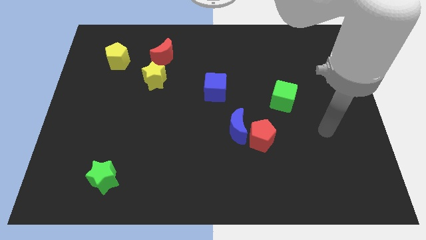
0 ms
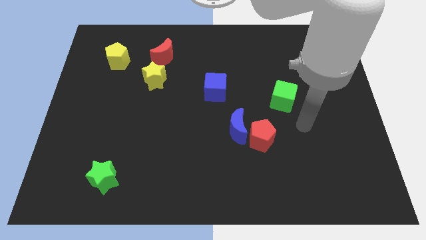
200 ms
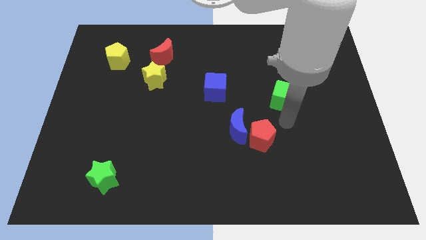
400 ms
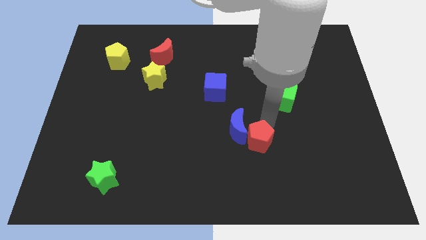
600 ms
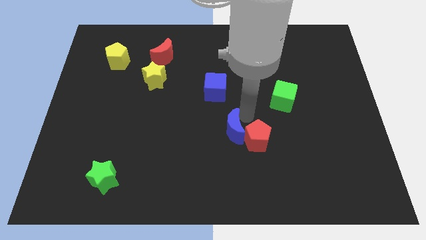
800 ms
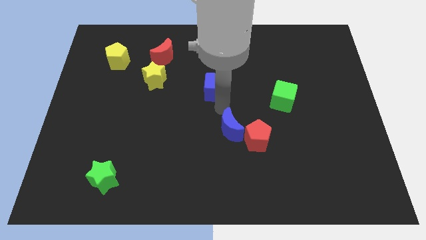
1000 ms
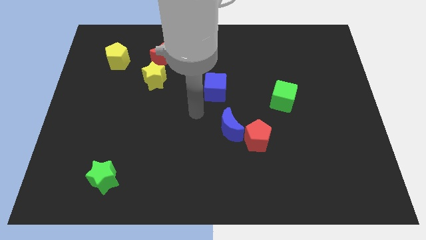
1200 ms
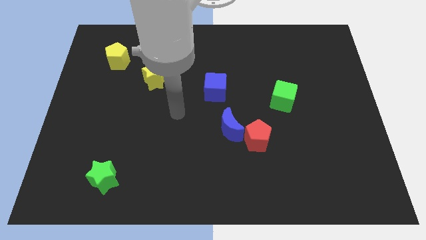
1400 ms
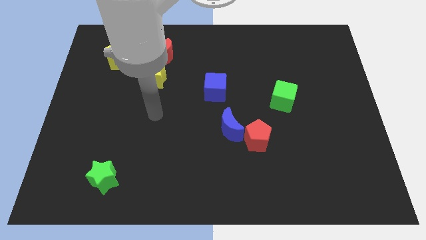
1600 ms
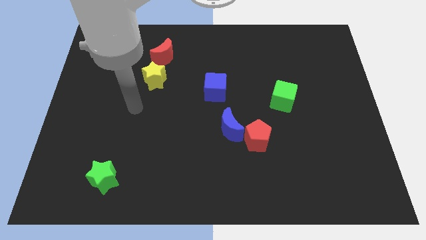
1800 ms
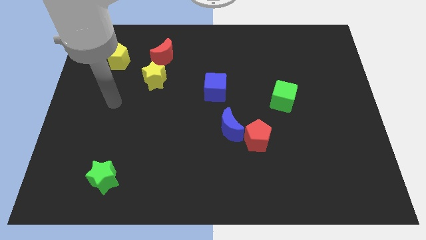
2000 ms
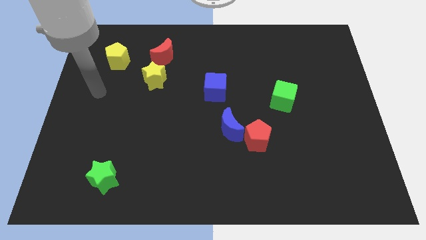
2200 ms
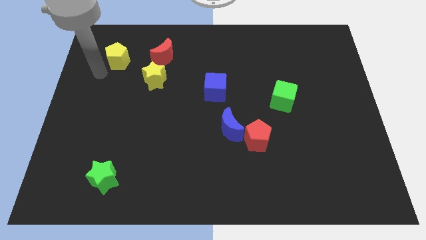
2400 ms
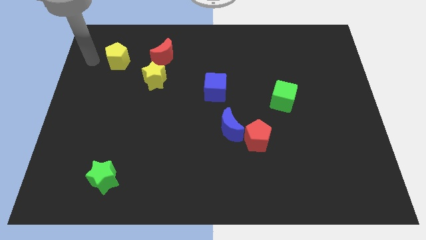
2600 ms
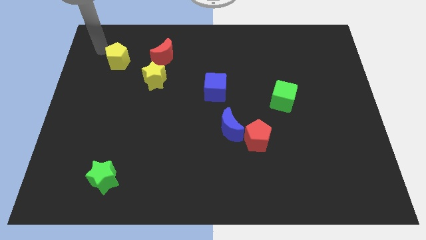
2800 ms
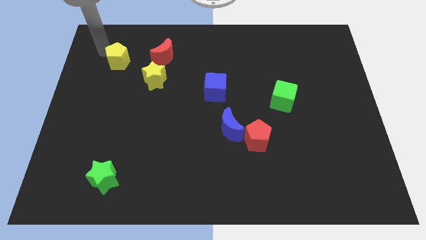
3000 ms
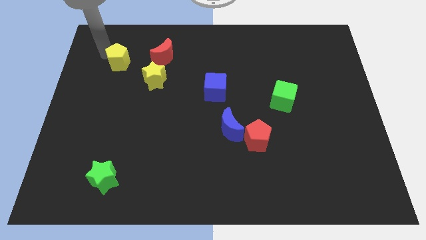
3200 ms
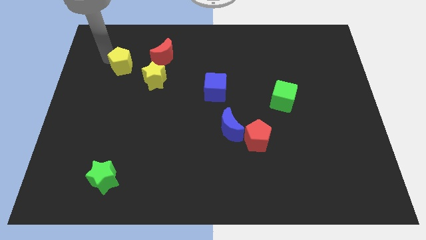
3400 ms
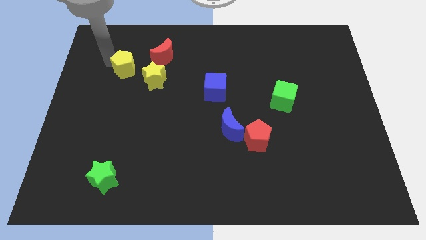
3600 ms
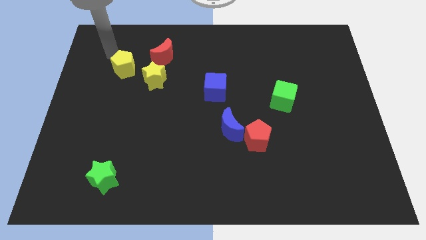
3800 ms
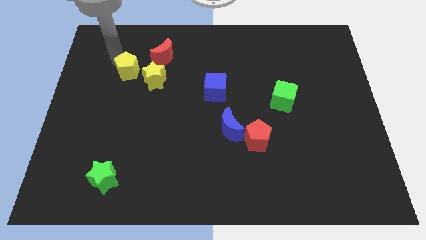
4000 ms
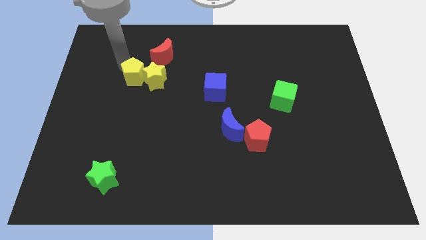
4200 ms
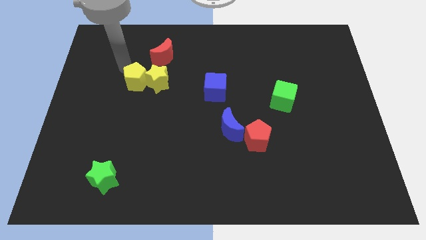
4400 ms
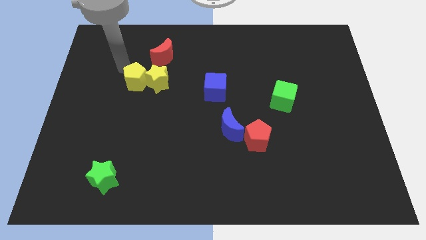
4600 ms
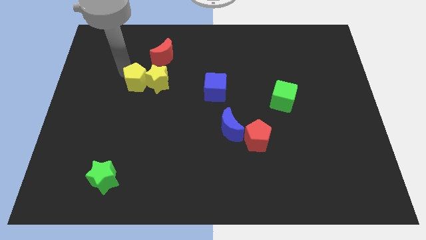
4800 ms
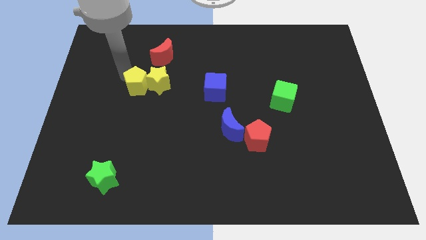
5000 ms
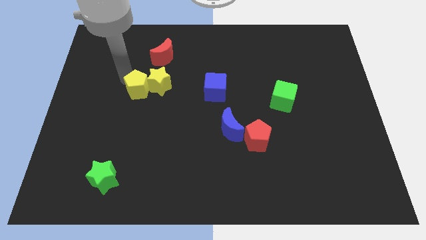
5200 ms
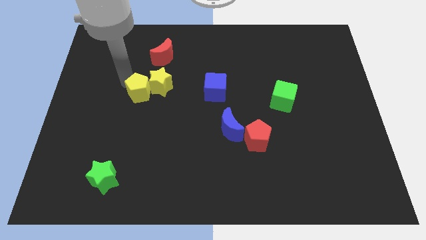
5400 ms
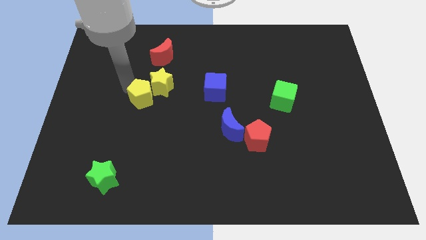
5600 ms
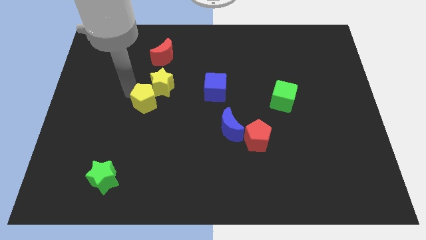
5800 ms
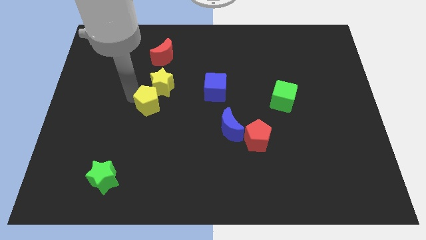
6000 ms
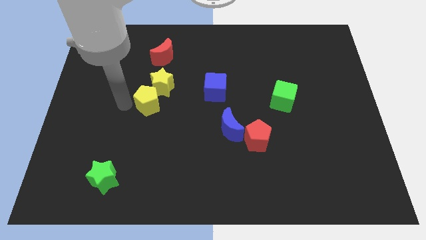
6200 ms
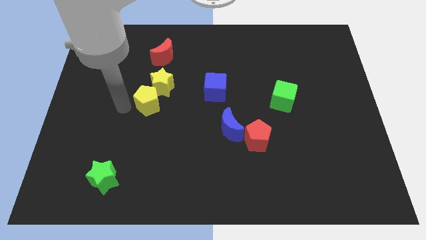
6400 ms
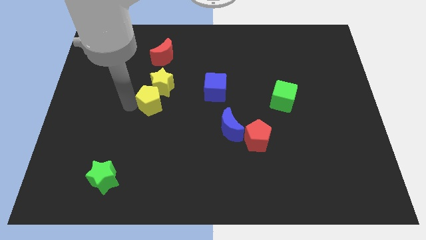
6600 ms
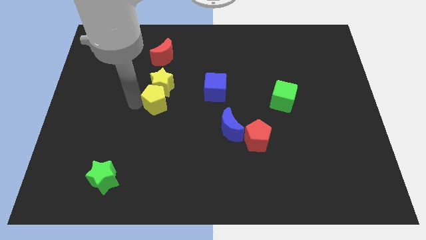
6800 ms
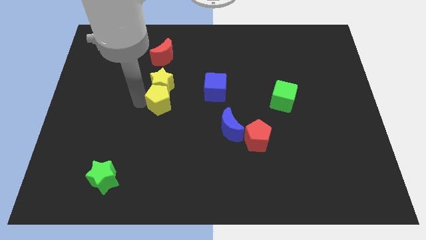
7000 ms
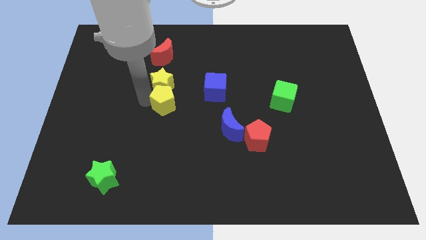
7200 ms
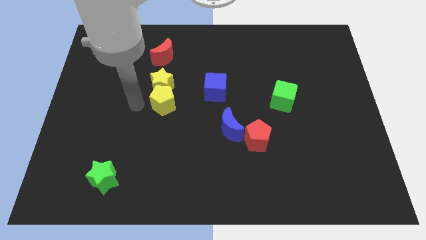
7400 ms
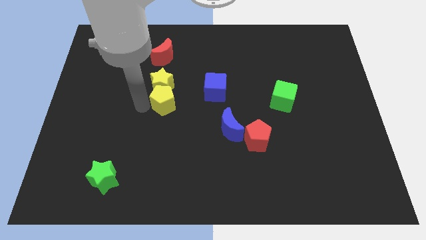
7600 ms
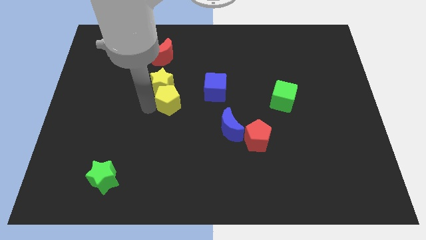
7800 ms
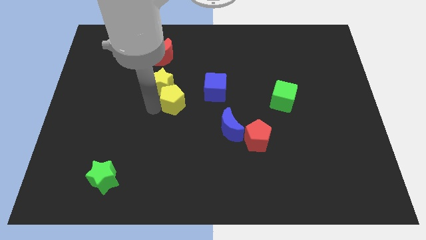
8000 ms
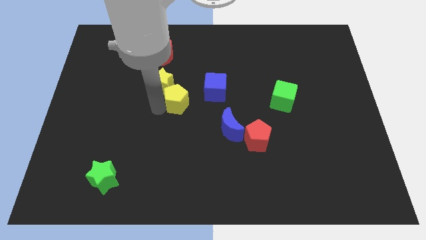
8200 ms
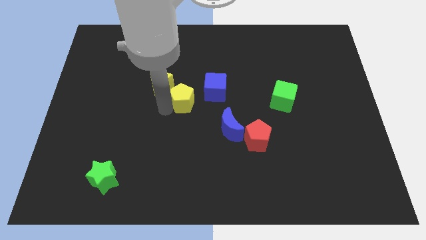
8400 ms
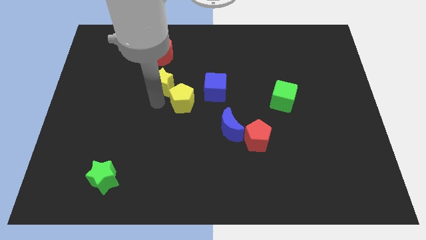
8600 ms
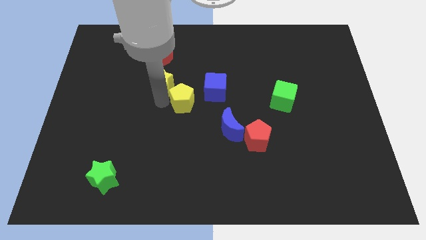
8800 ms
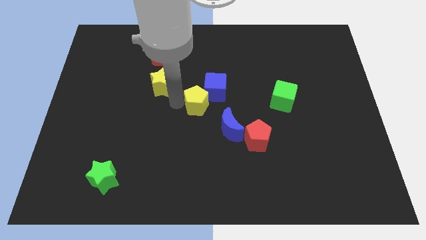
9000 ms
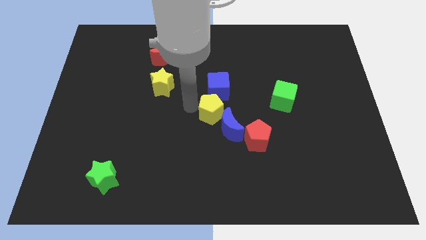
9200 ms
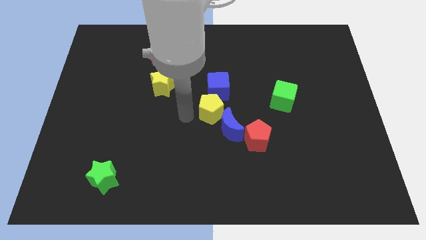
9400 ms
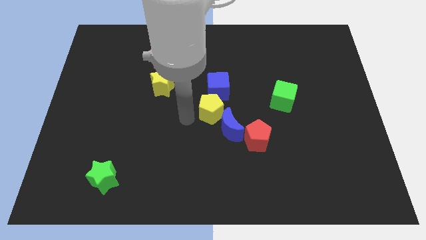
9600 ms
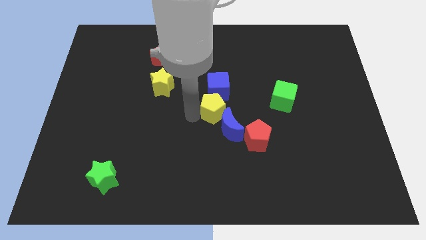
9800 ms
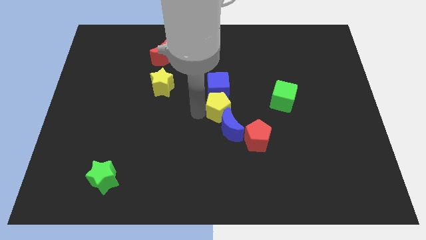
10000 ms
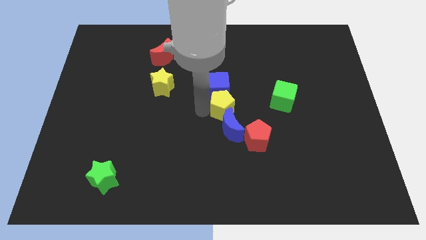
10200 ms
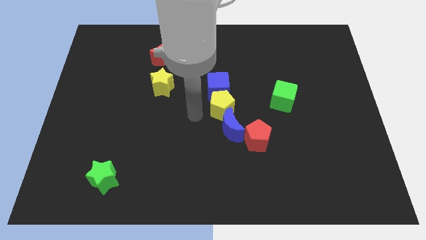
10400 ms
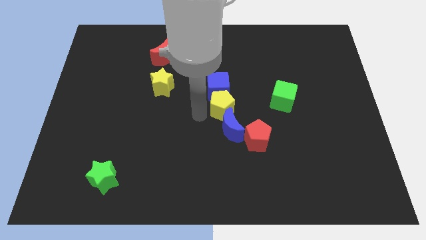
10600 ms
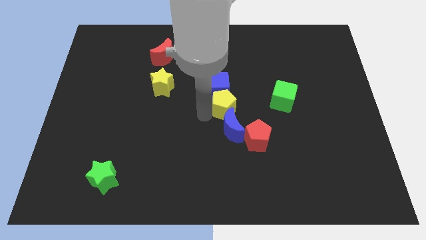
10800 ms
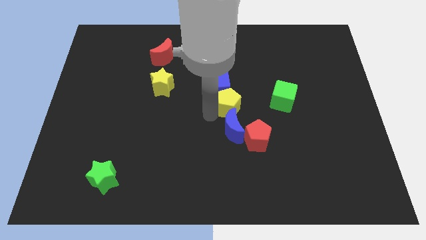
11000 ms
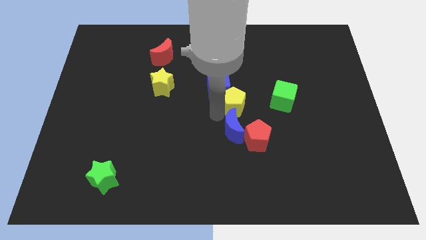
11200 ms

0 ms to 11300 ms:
put the yellow pentagon to the top of the red pentagon

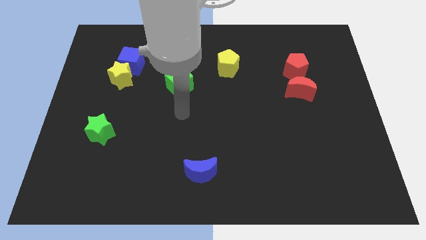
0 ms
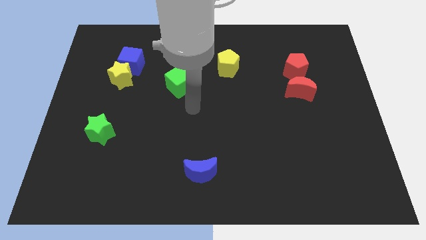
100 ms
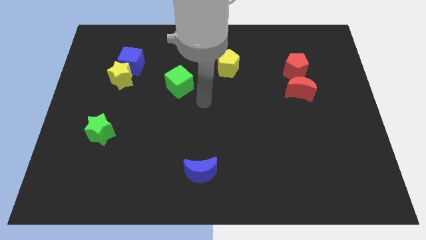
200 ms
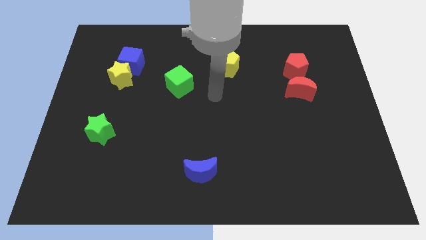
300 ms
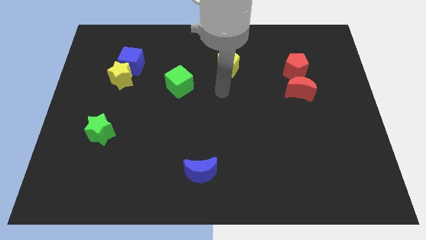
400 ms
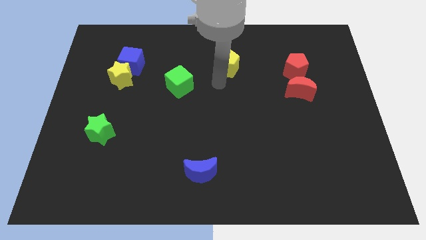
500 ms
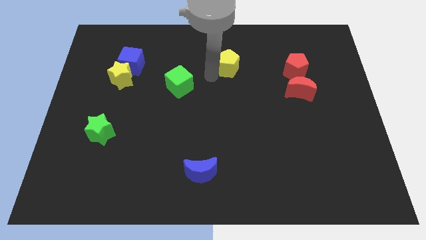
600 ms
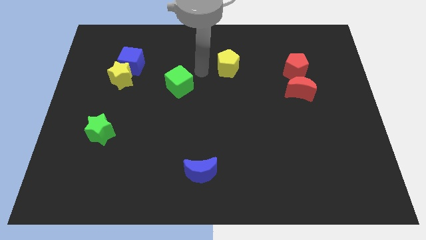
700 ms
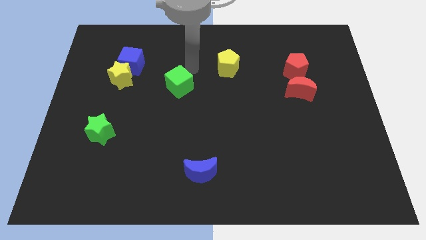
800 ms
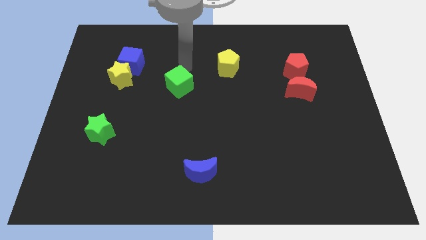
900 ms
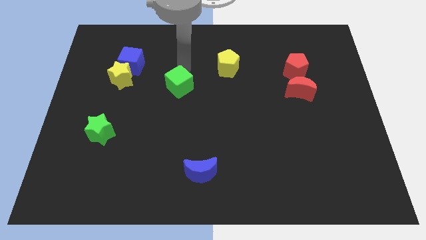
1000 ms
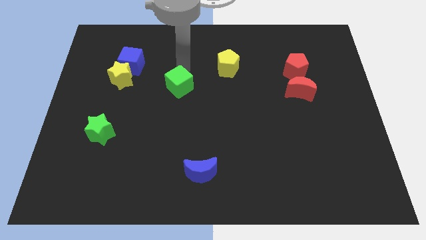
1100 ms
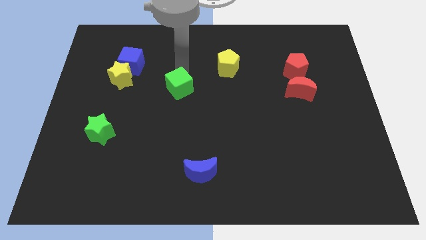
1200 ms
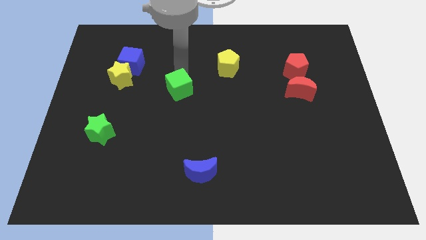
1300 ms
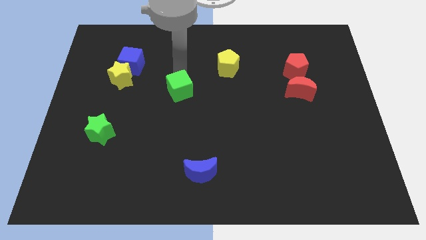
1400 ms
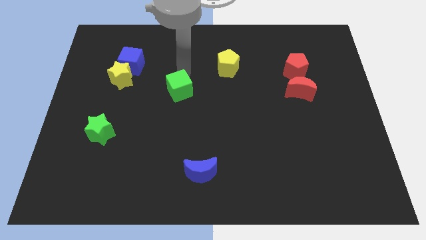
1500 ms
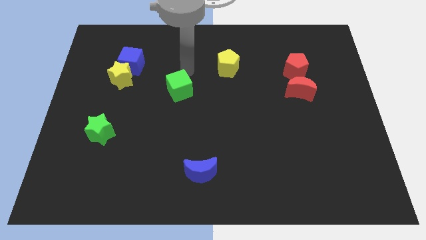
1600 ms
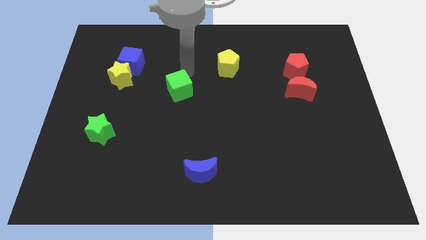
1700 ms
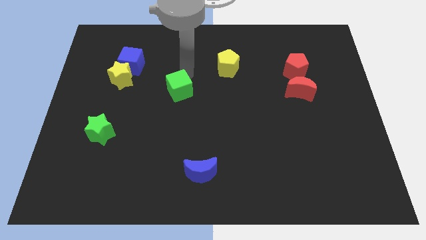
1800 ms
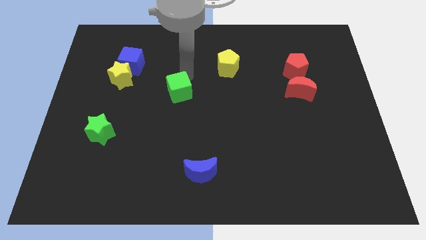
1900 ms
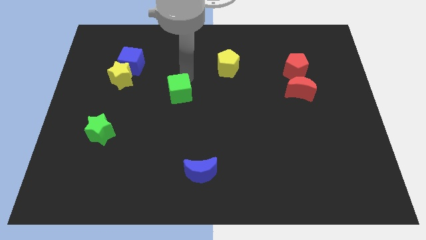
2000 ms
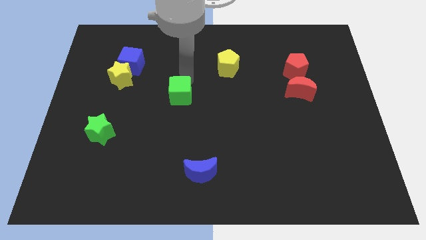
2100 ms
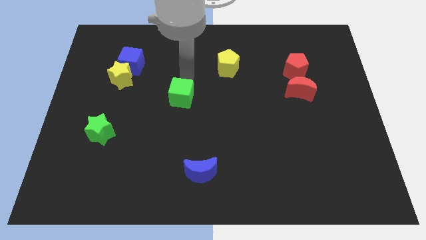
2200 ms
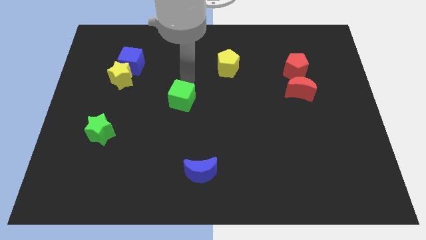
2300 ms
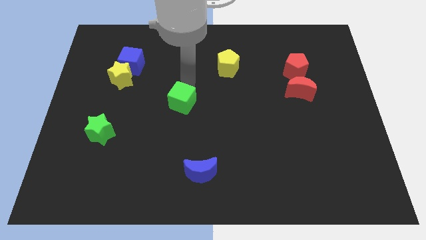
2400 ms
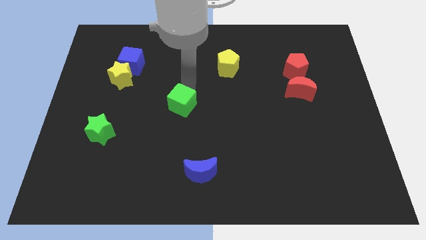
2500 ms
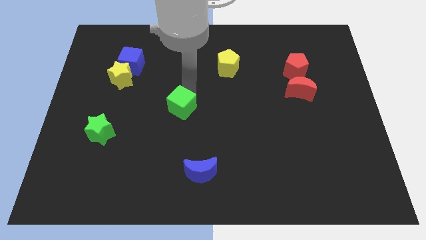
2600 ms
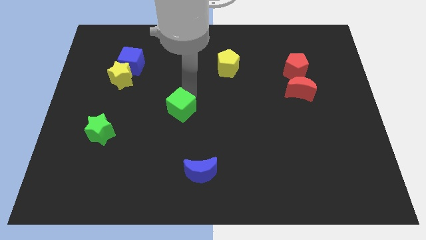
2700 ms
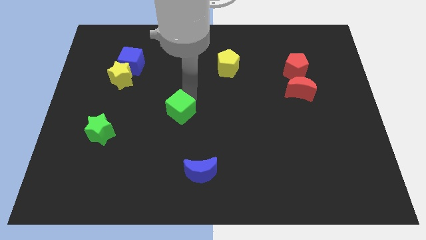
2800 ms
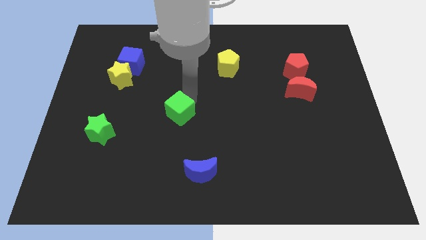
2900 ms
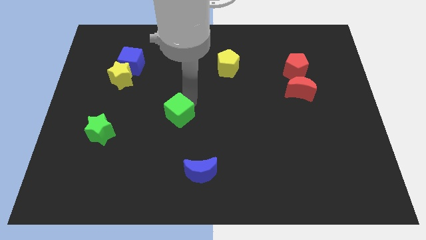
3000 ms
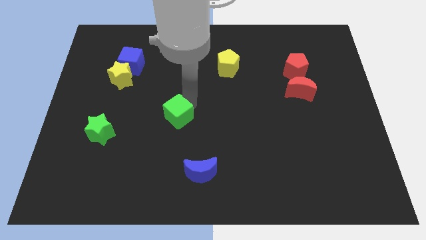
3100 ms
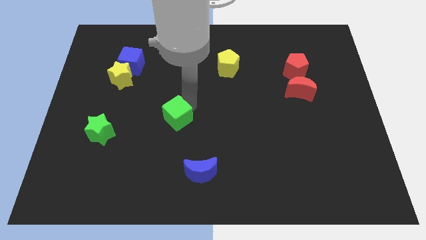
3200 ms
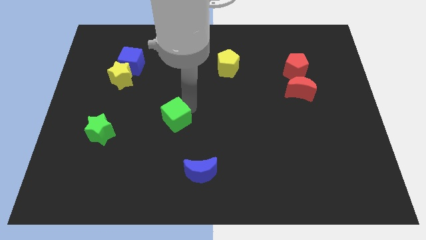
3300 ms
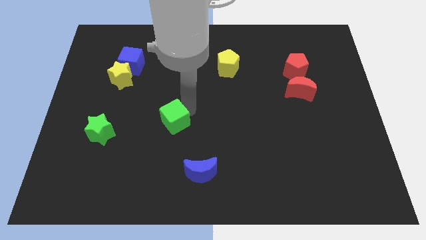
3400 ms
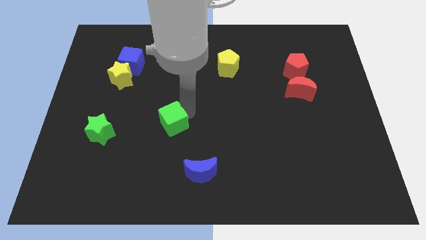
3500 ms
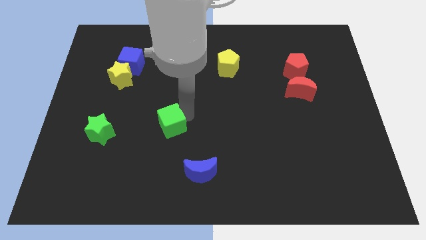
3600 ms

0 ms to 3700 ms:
slide the green cube to the right of the green star
